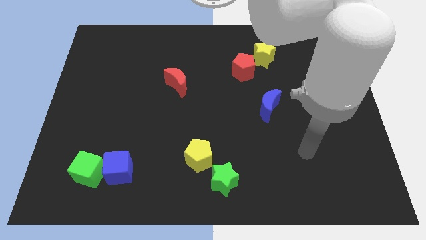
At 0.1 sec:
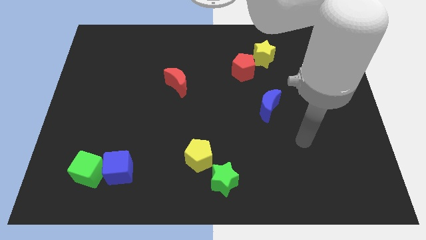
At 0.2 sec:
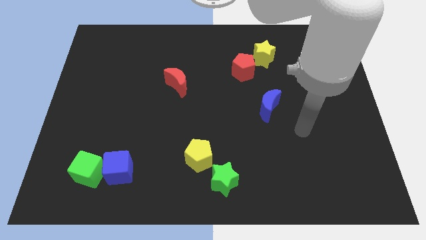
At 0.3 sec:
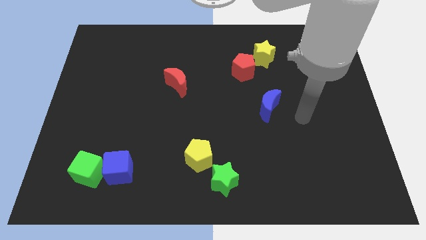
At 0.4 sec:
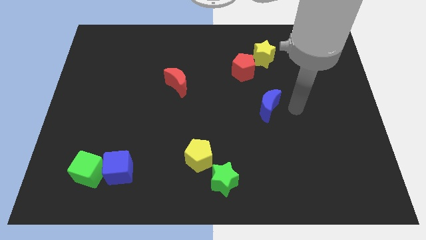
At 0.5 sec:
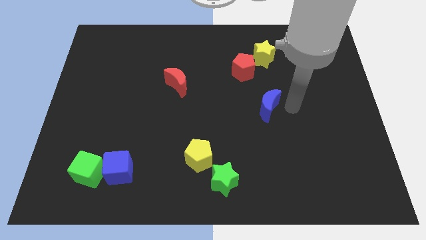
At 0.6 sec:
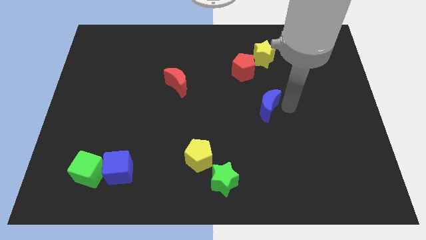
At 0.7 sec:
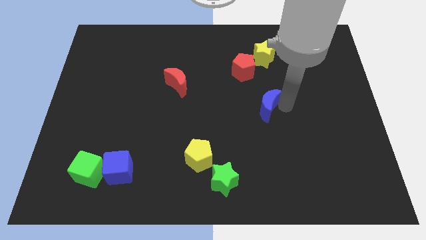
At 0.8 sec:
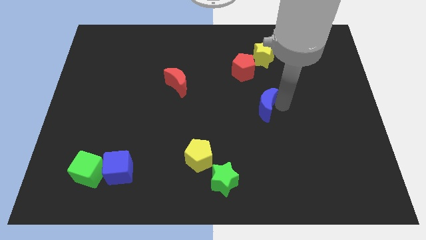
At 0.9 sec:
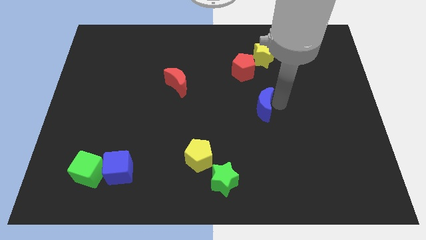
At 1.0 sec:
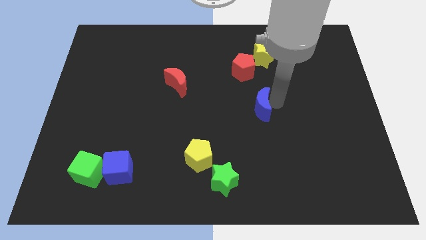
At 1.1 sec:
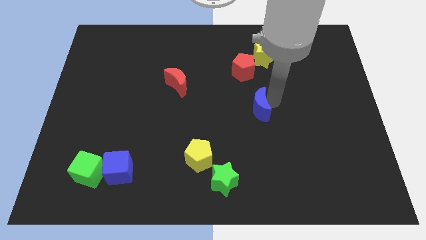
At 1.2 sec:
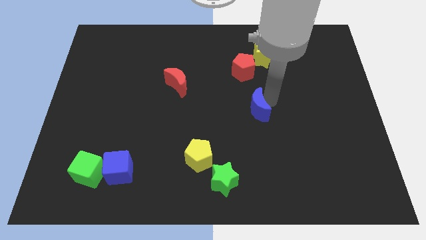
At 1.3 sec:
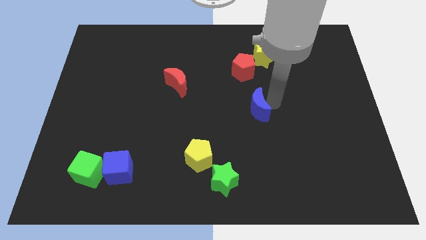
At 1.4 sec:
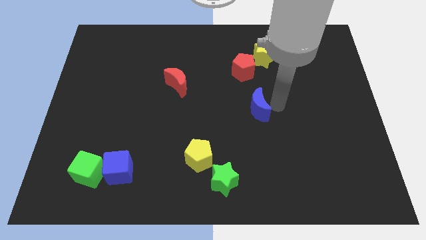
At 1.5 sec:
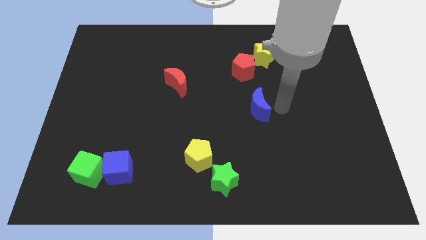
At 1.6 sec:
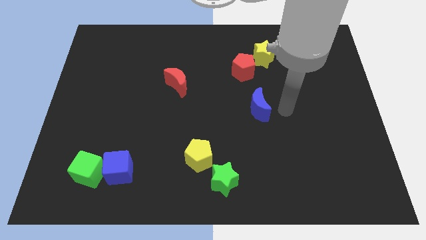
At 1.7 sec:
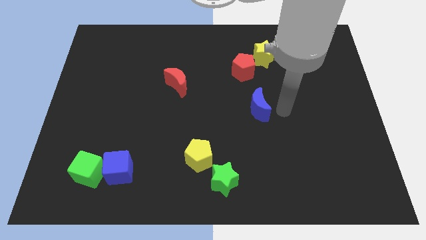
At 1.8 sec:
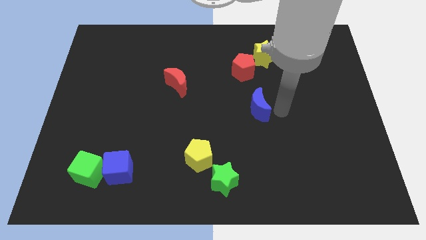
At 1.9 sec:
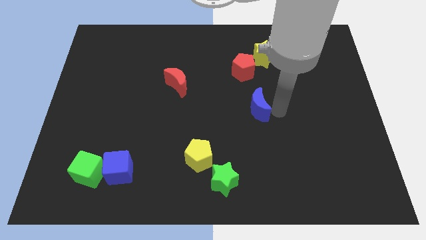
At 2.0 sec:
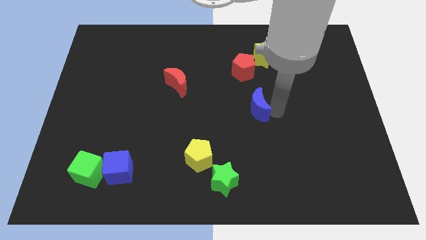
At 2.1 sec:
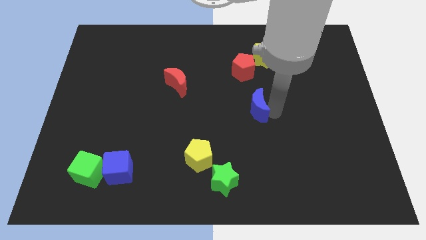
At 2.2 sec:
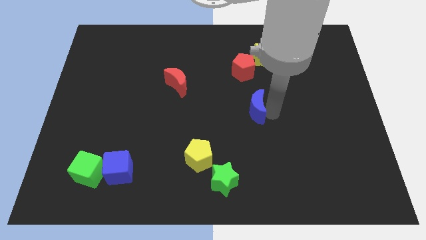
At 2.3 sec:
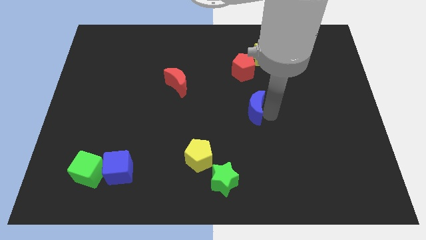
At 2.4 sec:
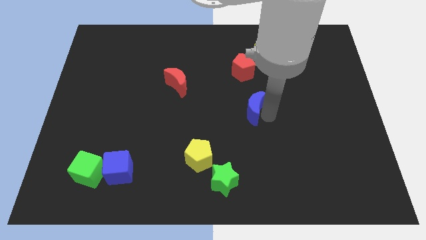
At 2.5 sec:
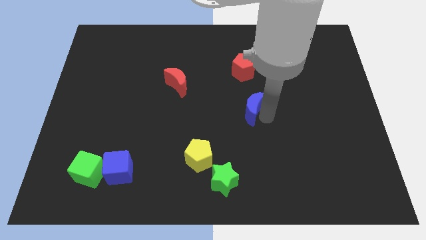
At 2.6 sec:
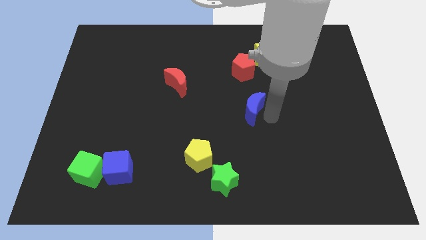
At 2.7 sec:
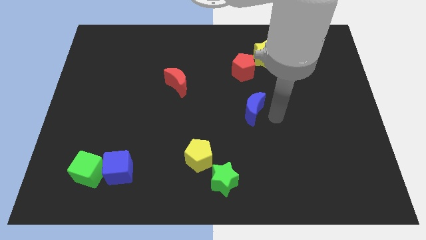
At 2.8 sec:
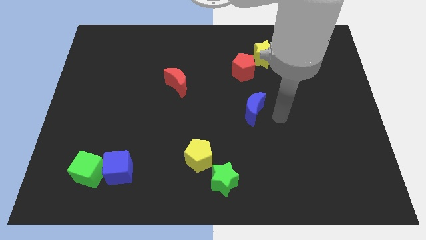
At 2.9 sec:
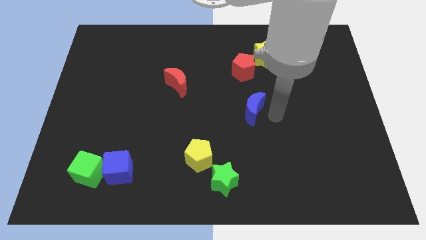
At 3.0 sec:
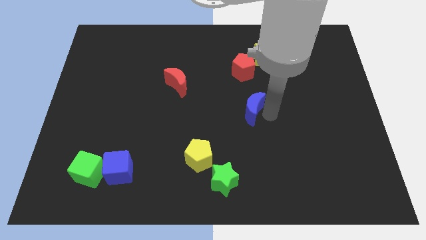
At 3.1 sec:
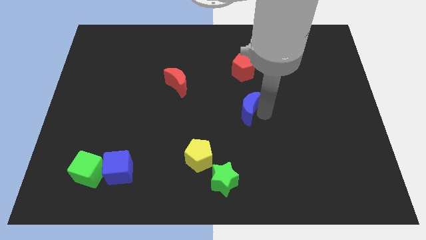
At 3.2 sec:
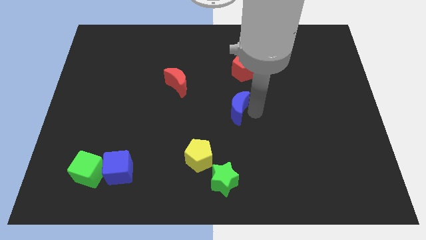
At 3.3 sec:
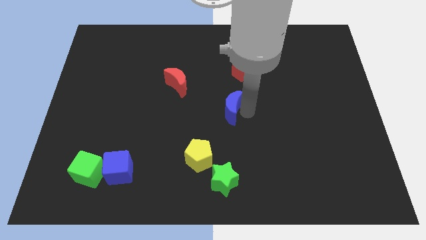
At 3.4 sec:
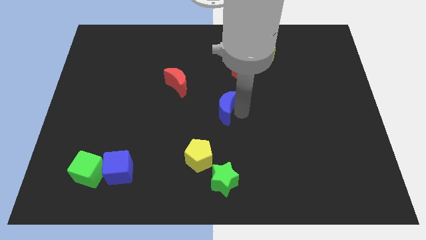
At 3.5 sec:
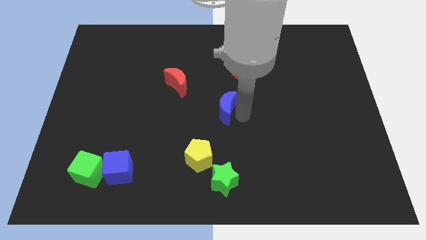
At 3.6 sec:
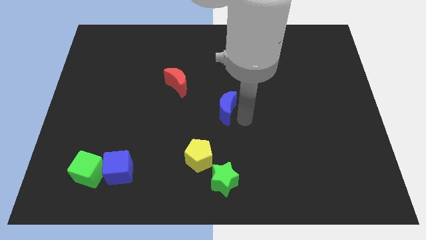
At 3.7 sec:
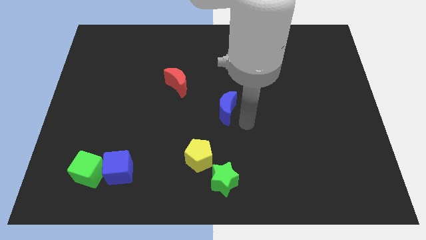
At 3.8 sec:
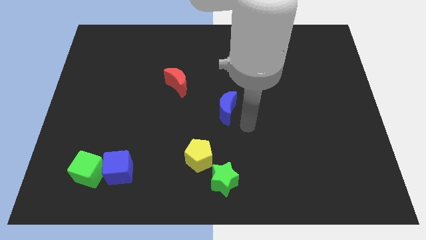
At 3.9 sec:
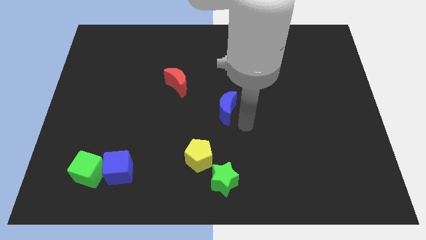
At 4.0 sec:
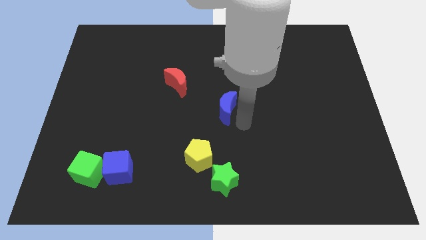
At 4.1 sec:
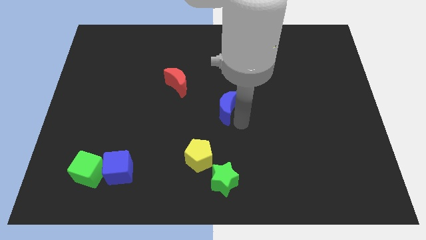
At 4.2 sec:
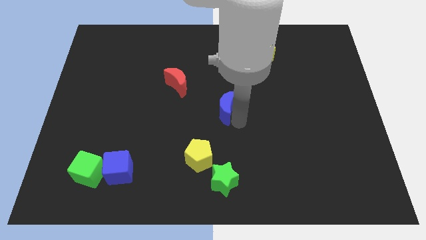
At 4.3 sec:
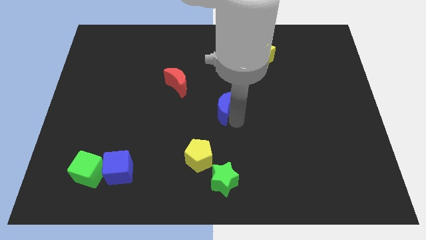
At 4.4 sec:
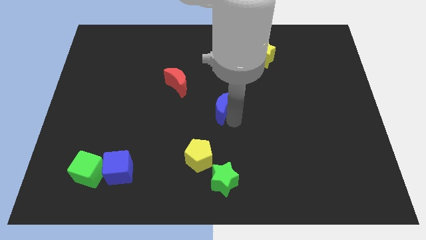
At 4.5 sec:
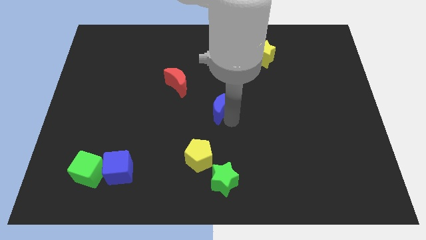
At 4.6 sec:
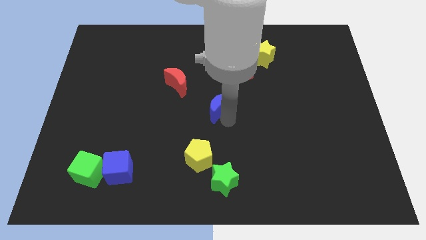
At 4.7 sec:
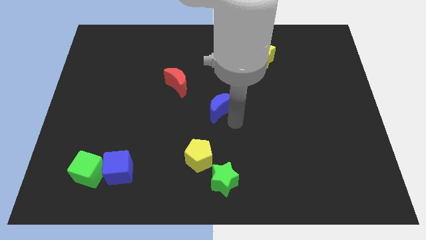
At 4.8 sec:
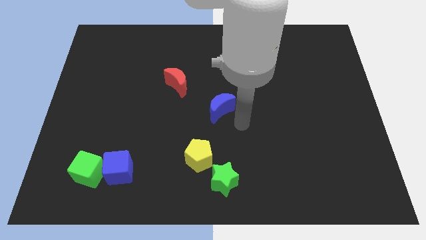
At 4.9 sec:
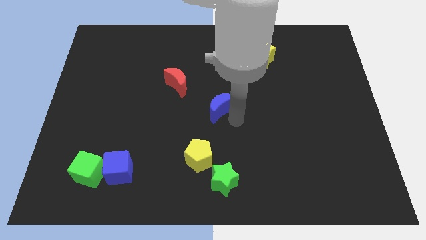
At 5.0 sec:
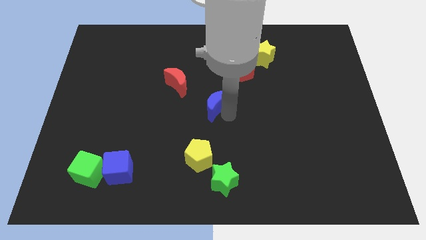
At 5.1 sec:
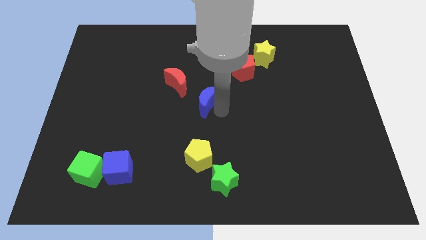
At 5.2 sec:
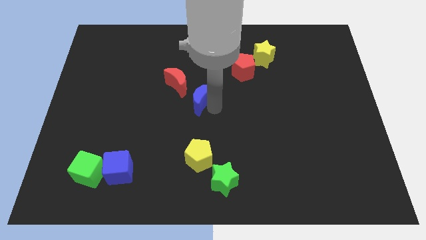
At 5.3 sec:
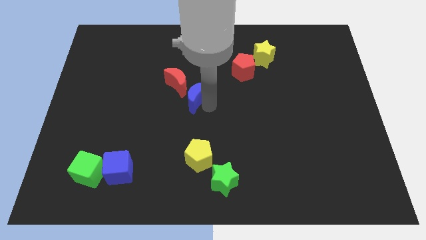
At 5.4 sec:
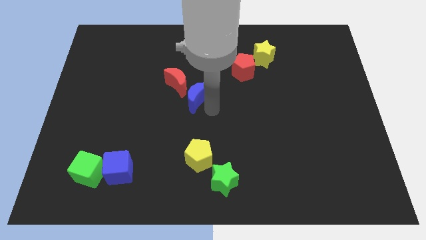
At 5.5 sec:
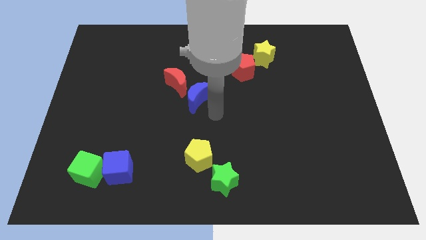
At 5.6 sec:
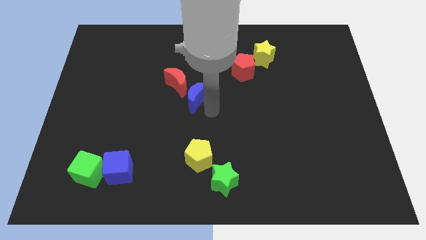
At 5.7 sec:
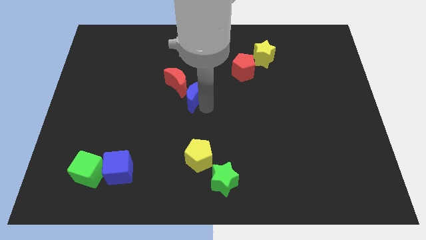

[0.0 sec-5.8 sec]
slide the blue moon towards the red moon

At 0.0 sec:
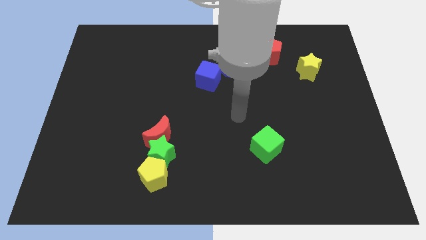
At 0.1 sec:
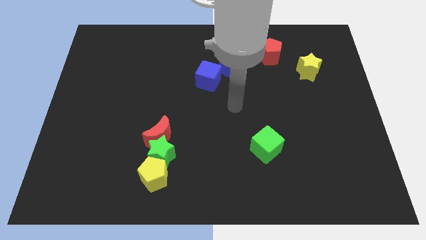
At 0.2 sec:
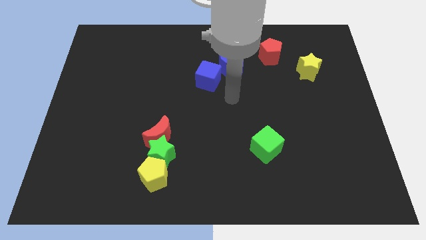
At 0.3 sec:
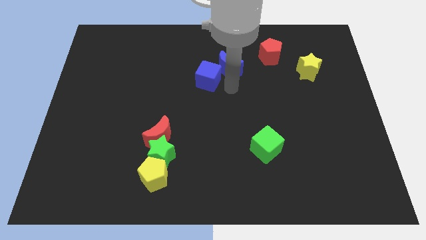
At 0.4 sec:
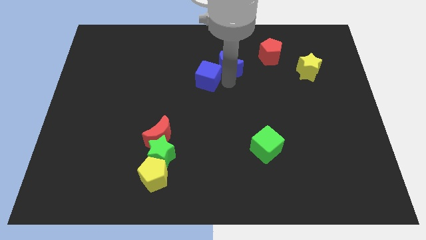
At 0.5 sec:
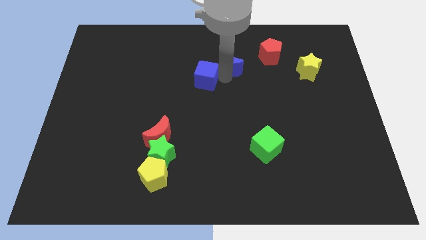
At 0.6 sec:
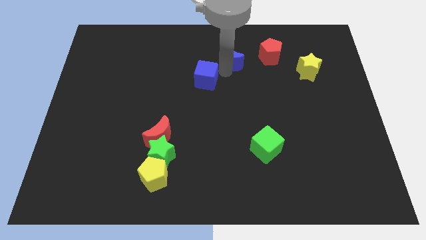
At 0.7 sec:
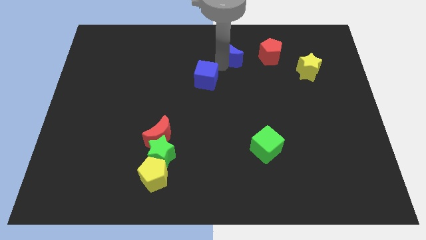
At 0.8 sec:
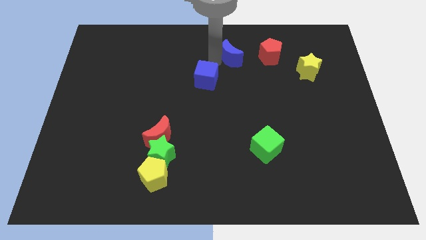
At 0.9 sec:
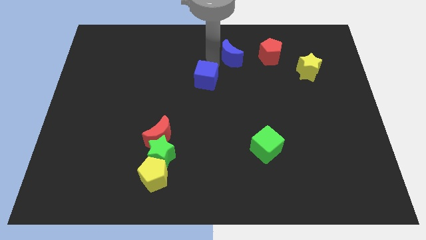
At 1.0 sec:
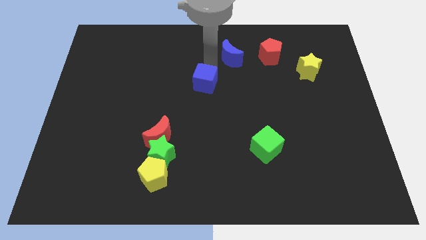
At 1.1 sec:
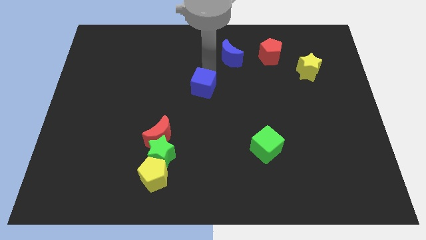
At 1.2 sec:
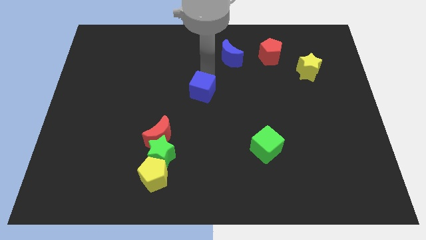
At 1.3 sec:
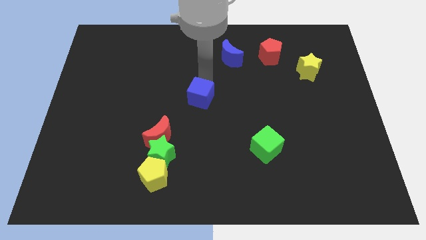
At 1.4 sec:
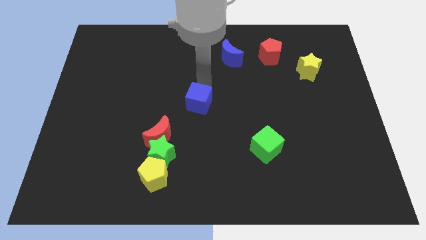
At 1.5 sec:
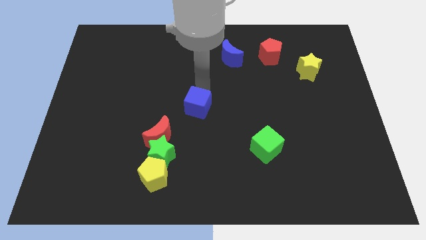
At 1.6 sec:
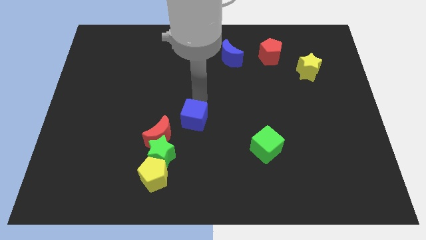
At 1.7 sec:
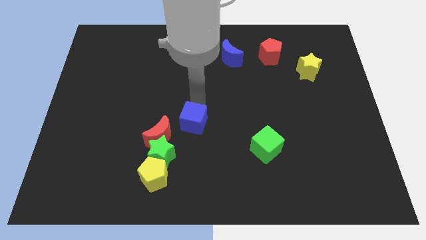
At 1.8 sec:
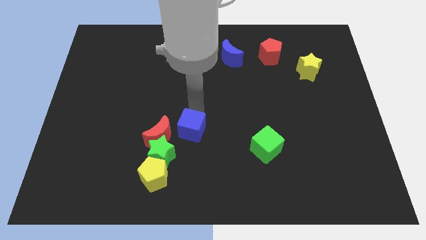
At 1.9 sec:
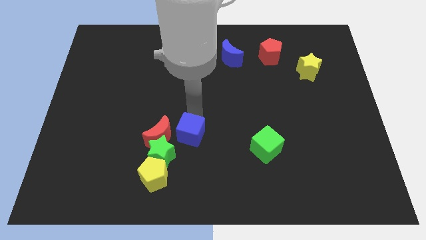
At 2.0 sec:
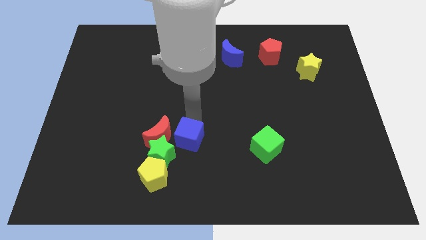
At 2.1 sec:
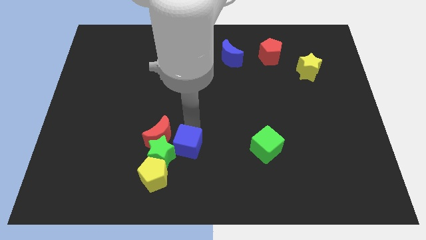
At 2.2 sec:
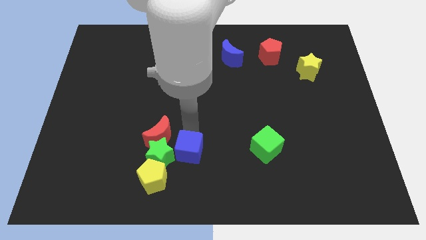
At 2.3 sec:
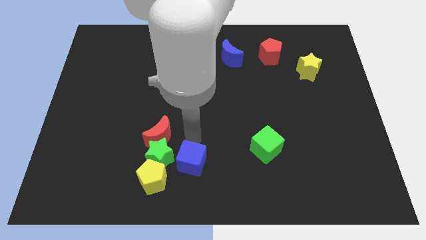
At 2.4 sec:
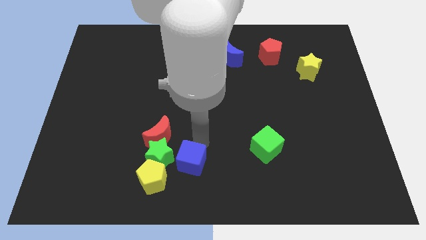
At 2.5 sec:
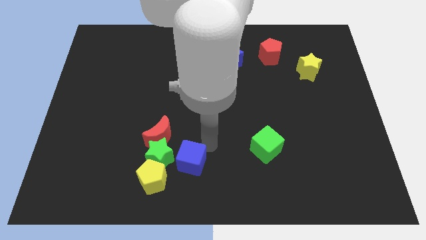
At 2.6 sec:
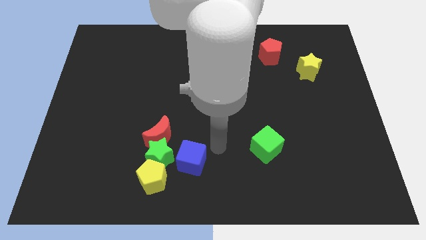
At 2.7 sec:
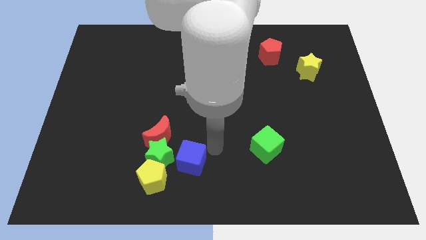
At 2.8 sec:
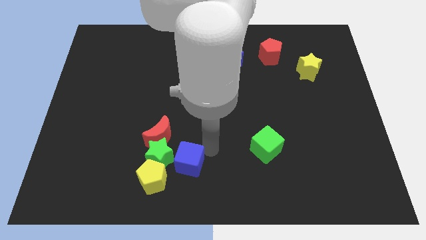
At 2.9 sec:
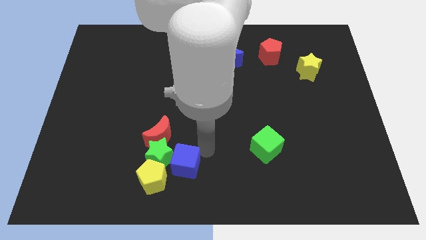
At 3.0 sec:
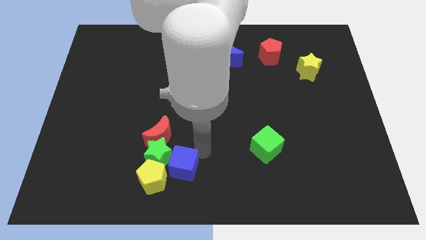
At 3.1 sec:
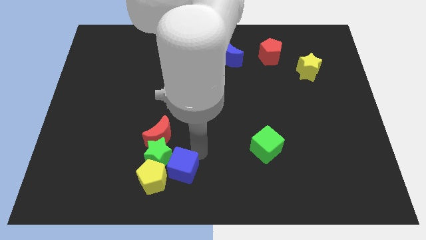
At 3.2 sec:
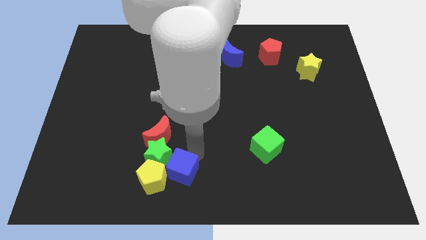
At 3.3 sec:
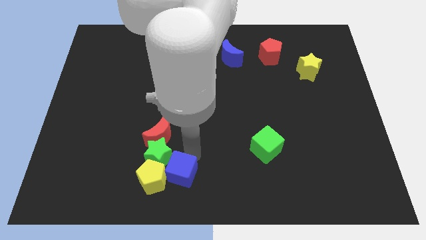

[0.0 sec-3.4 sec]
put the blue cube next to the yellow pentagon
